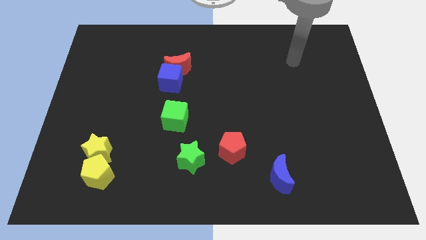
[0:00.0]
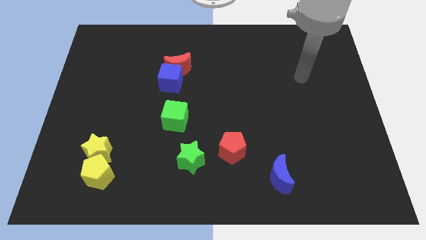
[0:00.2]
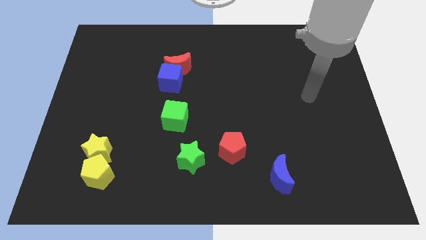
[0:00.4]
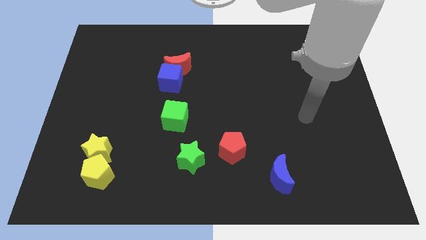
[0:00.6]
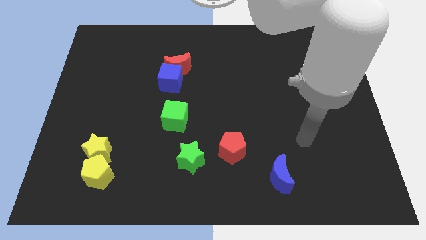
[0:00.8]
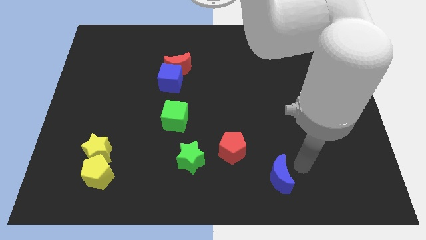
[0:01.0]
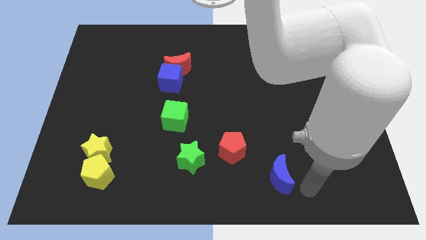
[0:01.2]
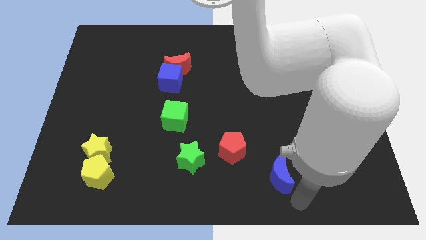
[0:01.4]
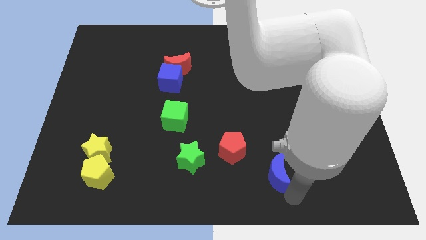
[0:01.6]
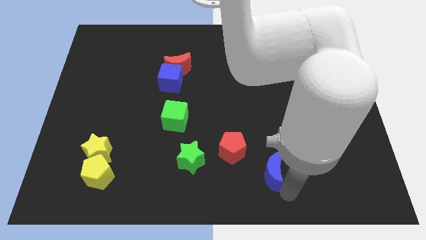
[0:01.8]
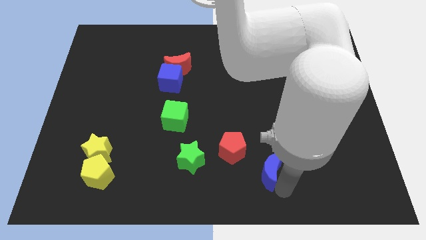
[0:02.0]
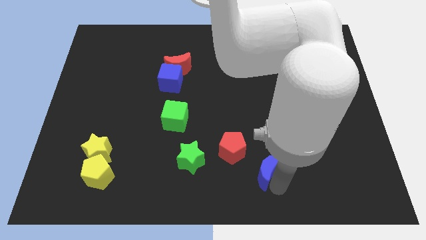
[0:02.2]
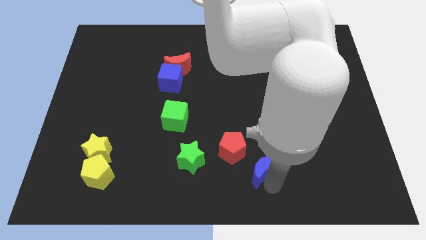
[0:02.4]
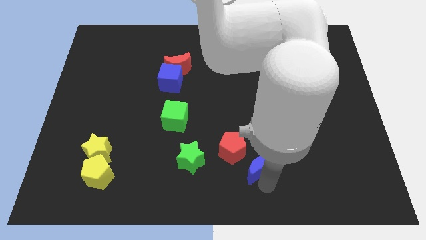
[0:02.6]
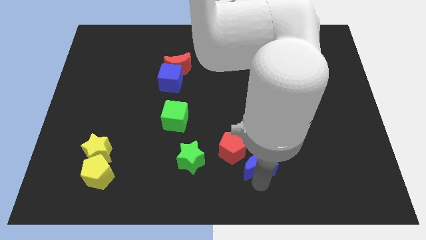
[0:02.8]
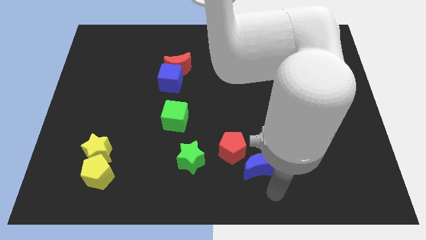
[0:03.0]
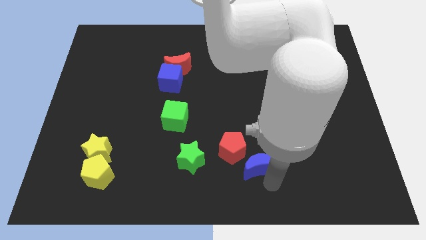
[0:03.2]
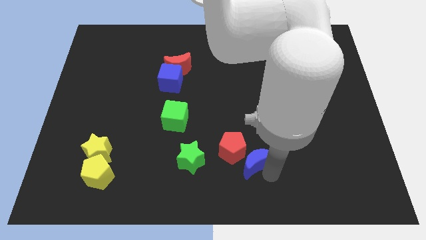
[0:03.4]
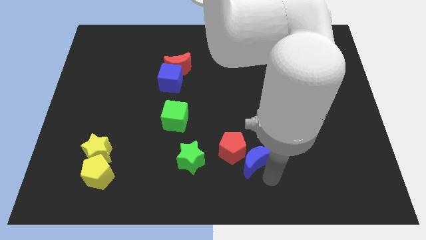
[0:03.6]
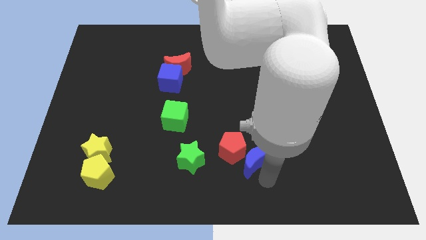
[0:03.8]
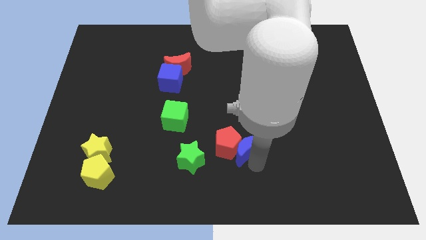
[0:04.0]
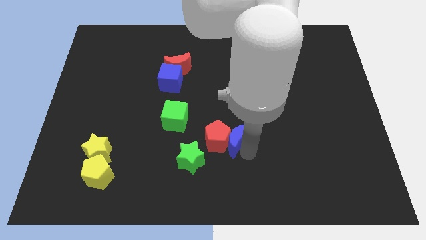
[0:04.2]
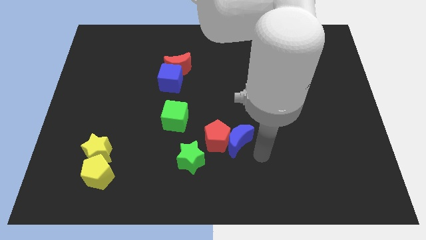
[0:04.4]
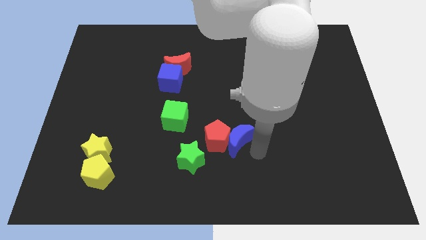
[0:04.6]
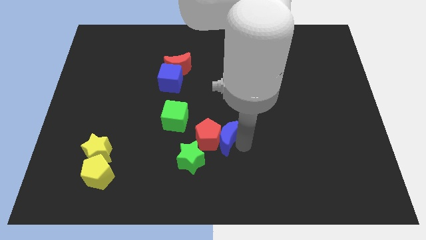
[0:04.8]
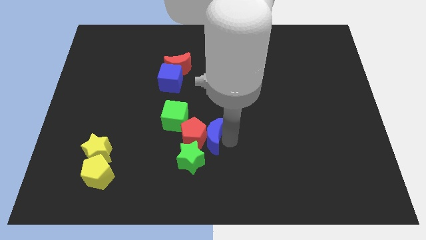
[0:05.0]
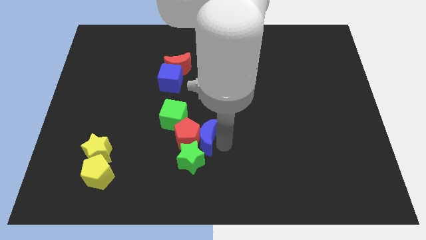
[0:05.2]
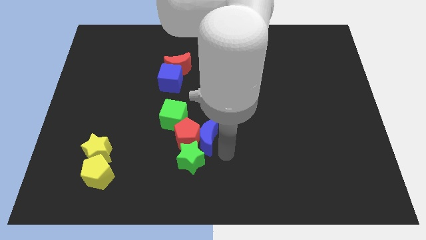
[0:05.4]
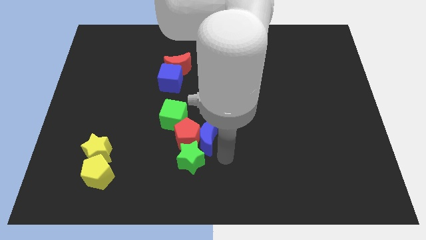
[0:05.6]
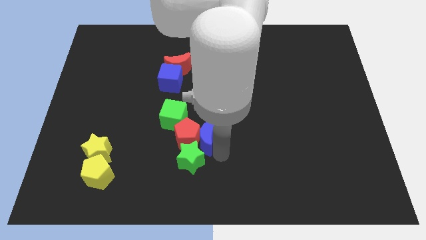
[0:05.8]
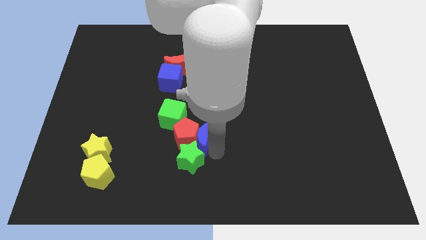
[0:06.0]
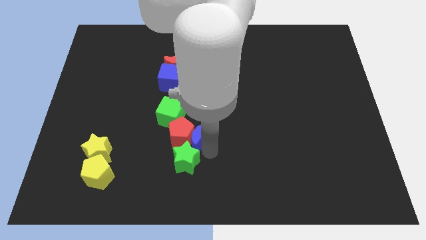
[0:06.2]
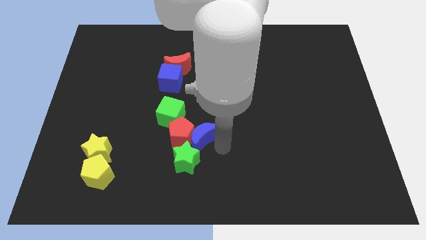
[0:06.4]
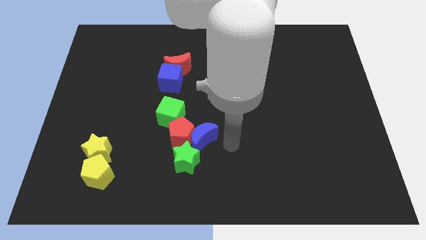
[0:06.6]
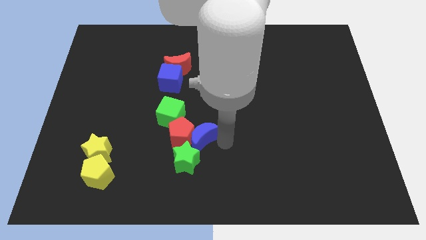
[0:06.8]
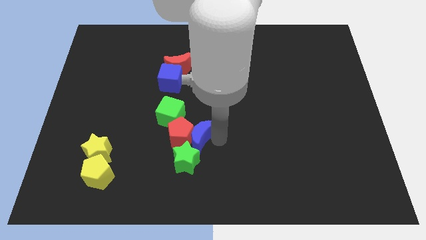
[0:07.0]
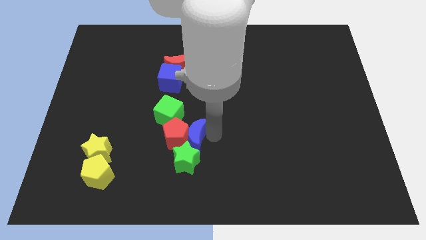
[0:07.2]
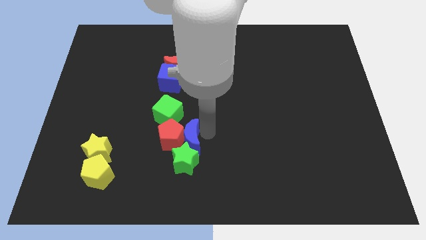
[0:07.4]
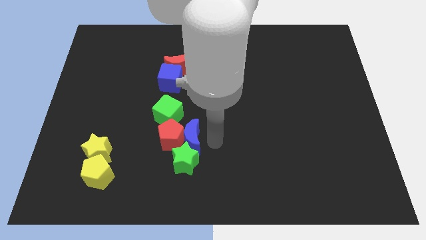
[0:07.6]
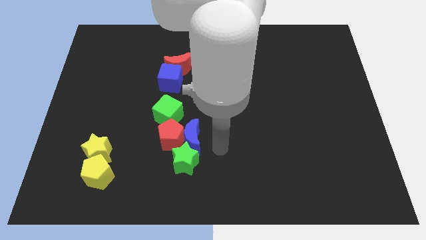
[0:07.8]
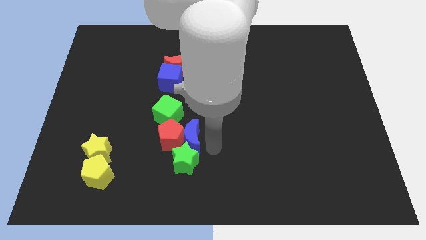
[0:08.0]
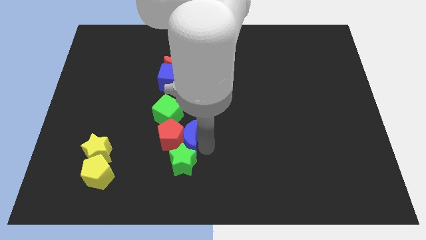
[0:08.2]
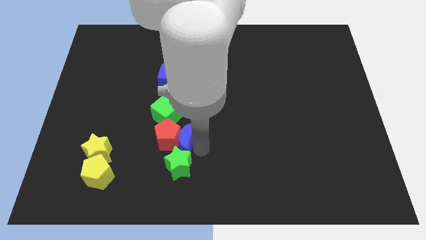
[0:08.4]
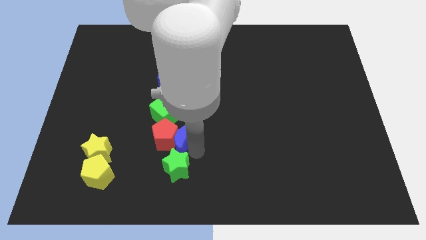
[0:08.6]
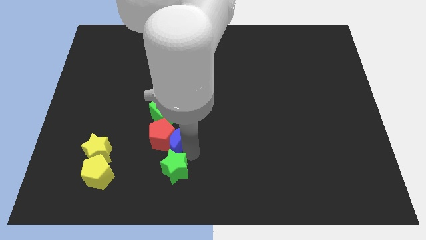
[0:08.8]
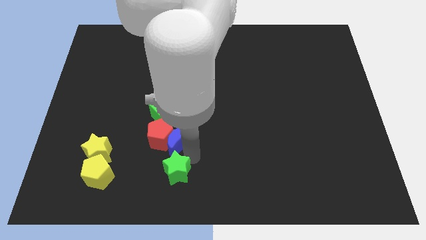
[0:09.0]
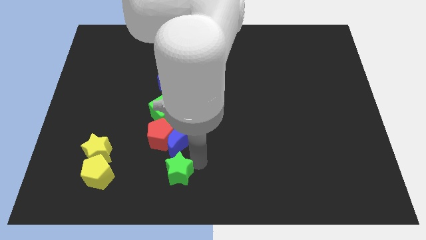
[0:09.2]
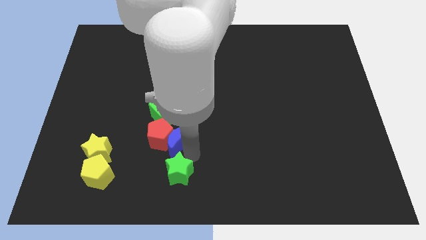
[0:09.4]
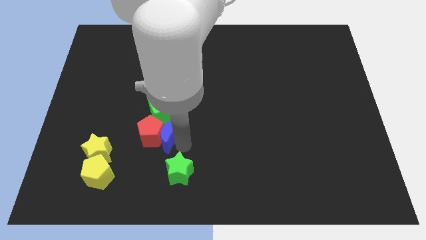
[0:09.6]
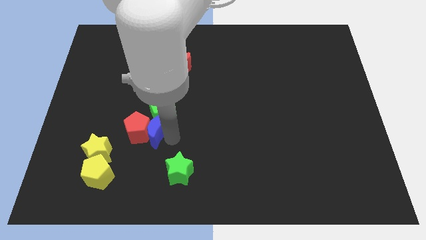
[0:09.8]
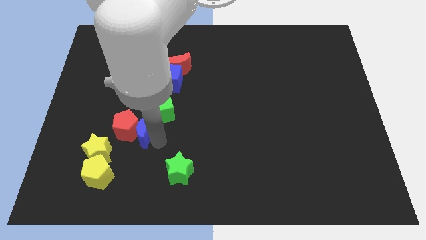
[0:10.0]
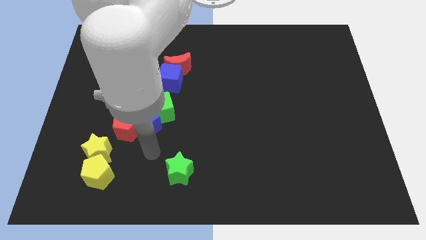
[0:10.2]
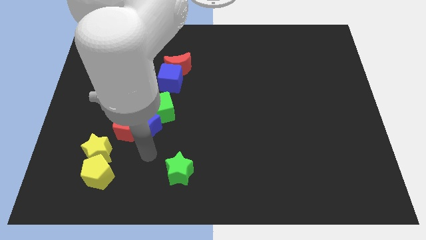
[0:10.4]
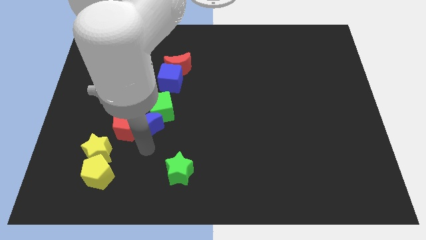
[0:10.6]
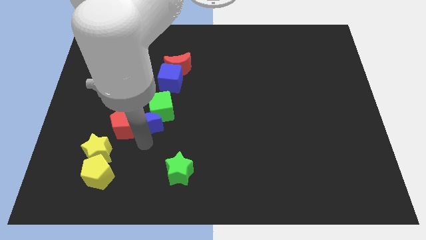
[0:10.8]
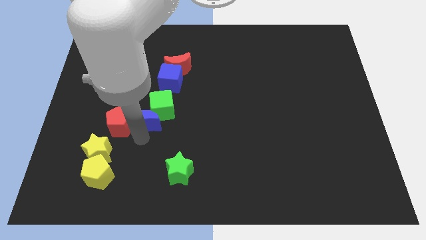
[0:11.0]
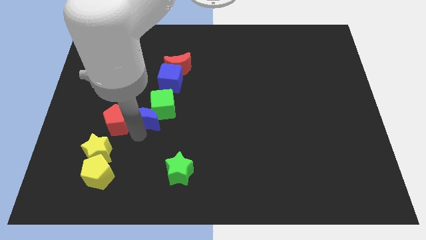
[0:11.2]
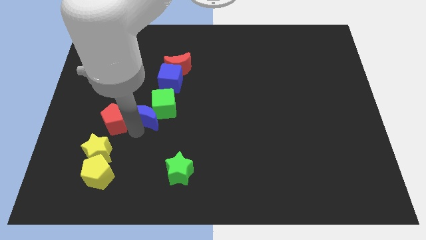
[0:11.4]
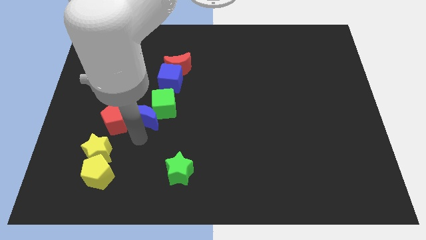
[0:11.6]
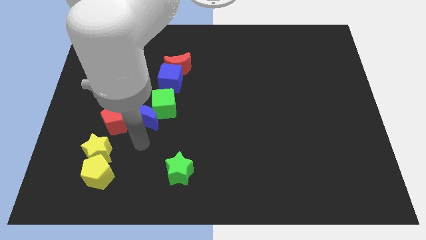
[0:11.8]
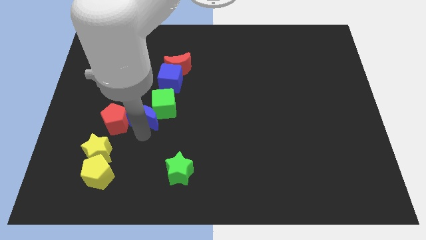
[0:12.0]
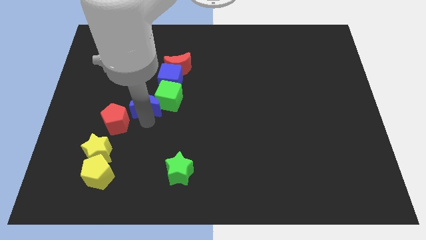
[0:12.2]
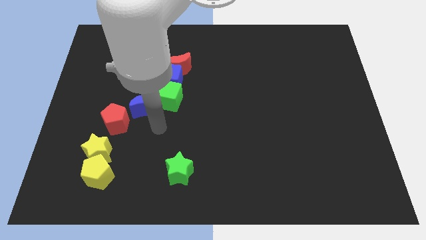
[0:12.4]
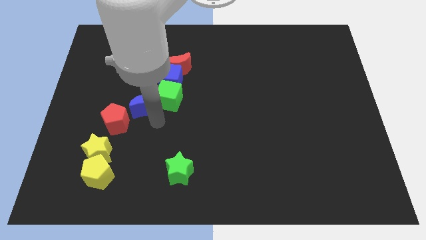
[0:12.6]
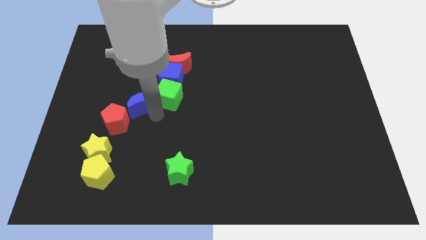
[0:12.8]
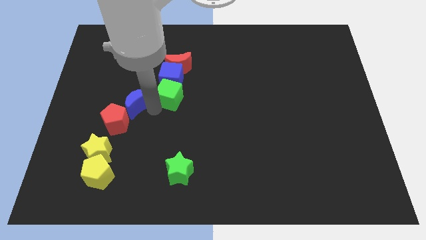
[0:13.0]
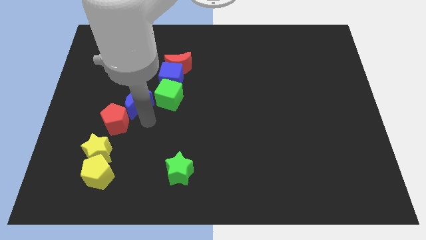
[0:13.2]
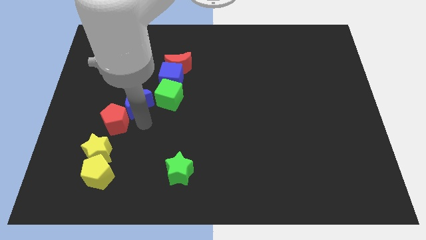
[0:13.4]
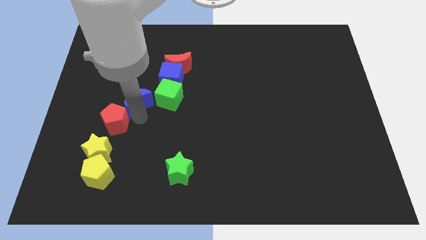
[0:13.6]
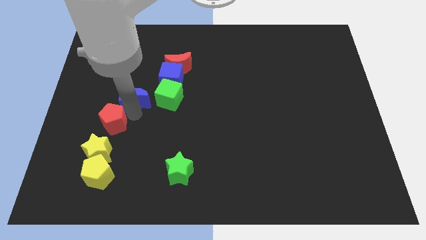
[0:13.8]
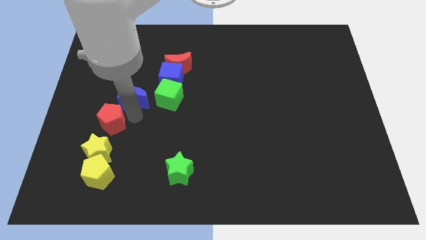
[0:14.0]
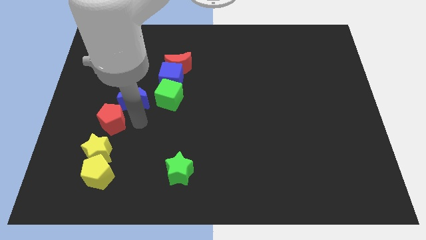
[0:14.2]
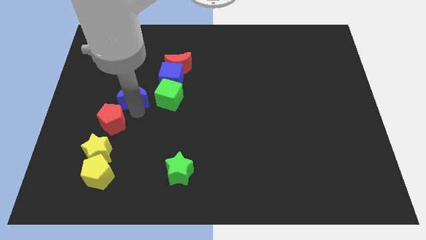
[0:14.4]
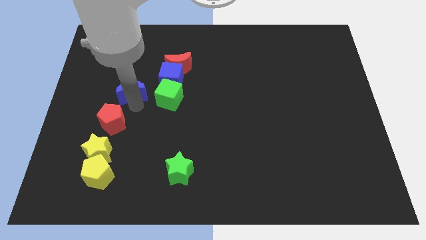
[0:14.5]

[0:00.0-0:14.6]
put the blue moon just left of the blue cube
